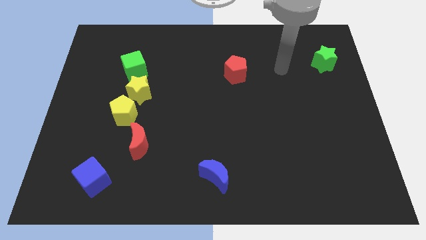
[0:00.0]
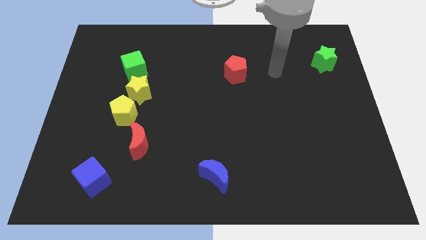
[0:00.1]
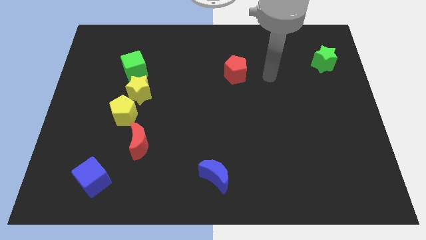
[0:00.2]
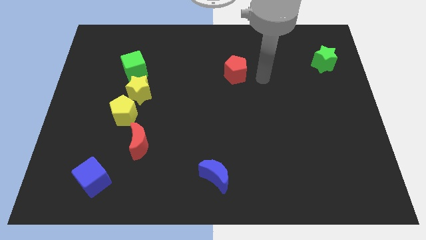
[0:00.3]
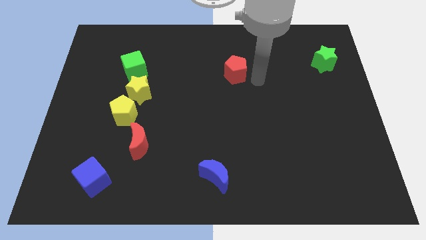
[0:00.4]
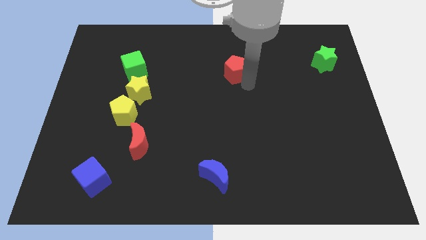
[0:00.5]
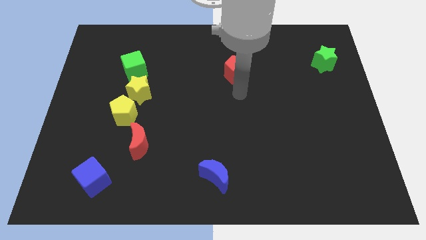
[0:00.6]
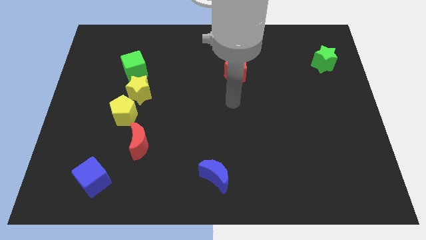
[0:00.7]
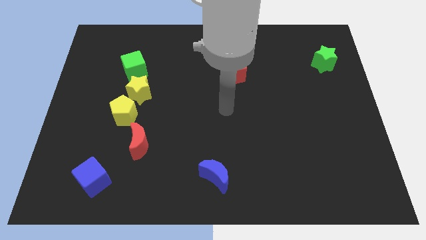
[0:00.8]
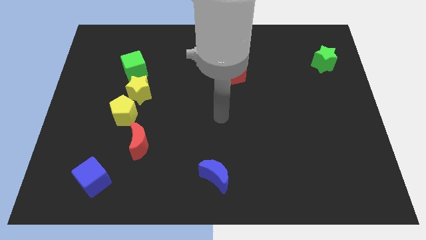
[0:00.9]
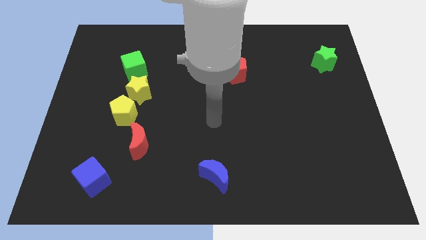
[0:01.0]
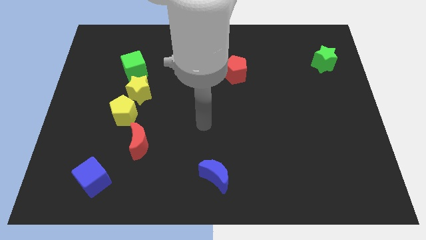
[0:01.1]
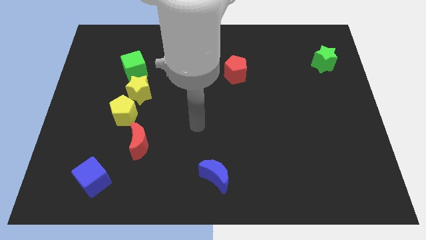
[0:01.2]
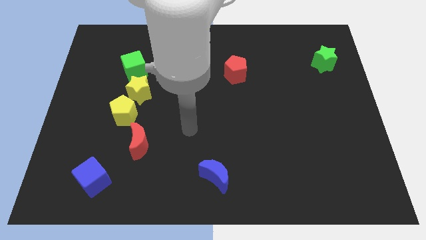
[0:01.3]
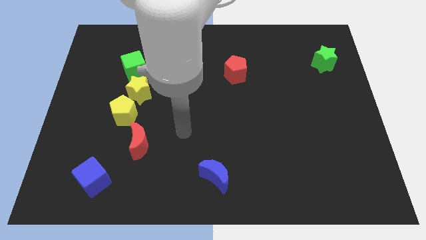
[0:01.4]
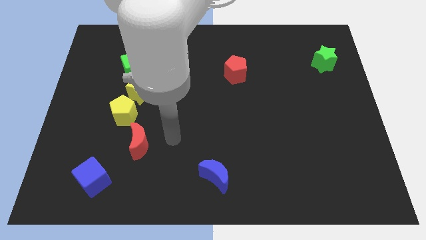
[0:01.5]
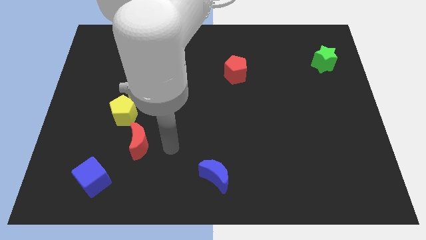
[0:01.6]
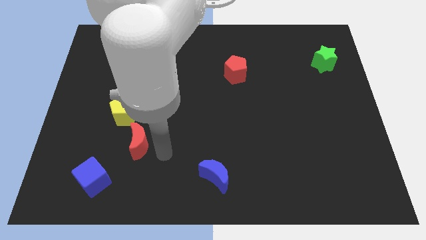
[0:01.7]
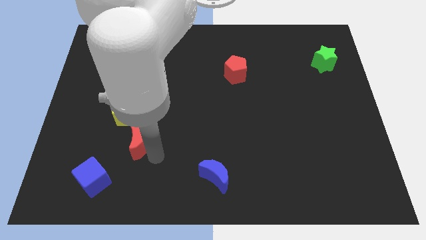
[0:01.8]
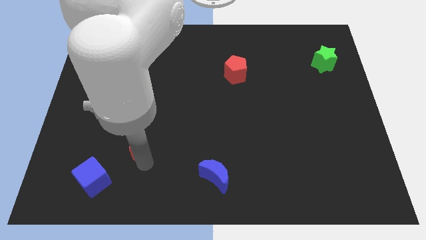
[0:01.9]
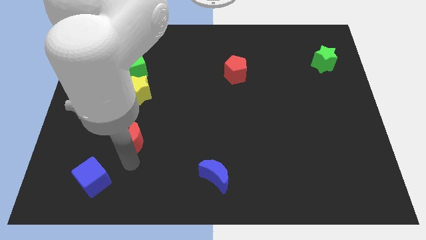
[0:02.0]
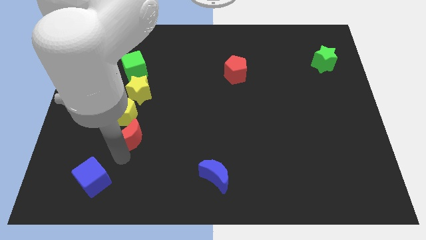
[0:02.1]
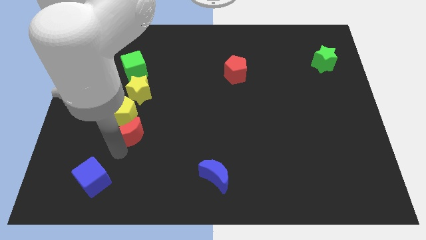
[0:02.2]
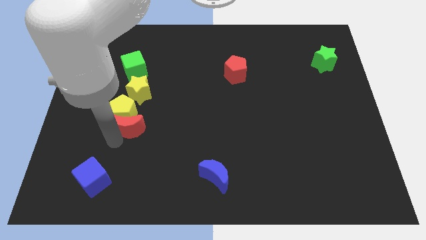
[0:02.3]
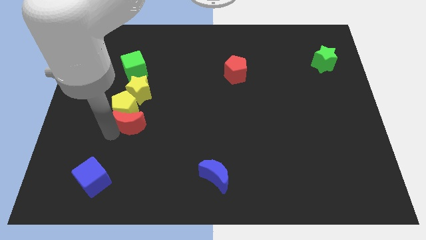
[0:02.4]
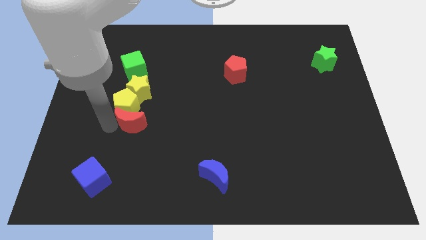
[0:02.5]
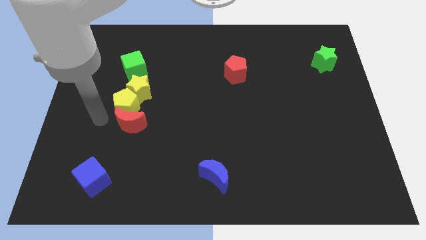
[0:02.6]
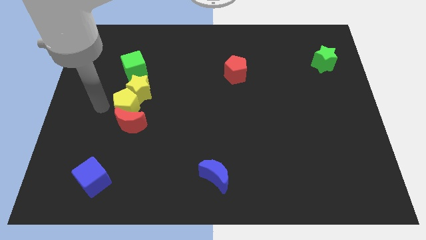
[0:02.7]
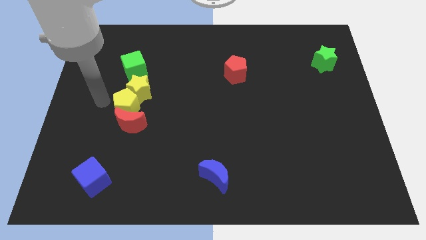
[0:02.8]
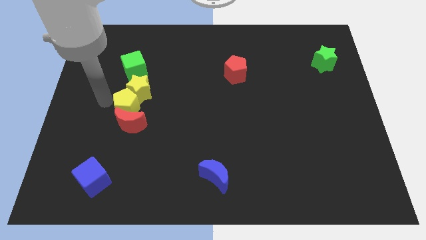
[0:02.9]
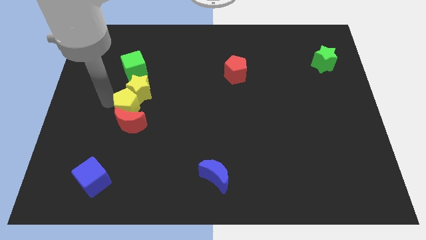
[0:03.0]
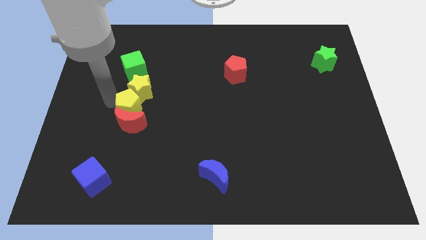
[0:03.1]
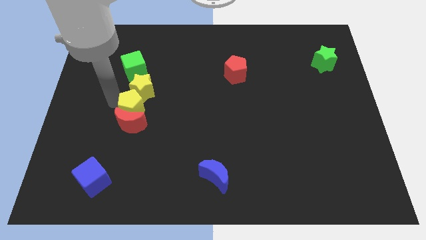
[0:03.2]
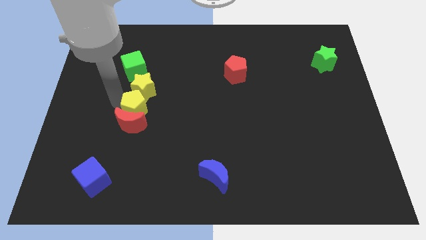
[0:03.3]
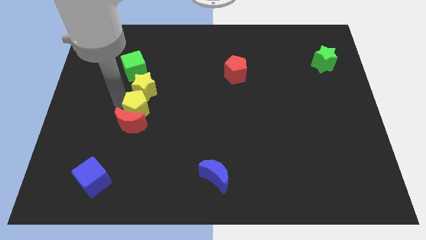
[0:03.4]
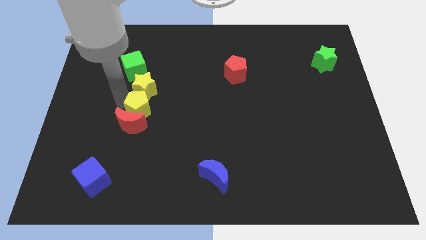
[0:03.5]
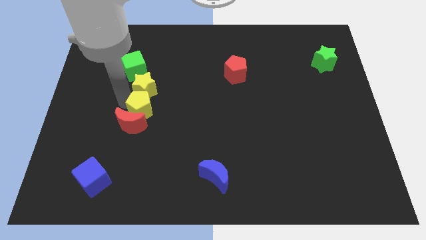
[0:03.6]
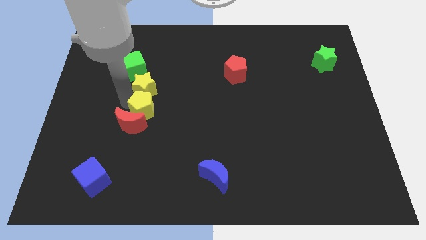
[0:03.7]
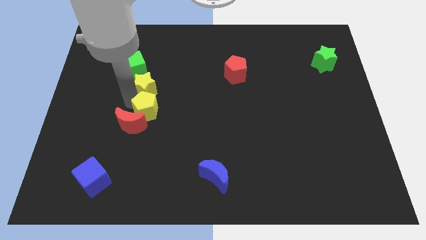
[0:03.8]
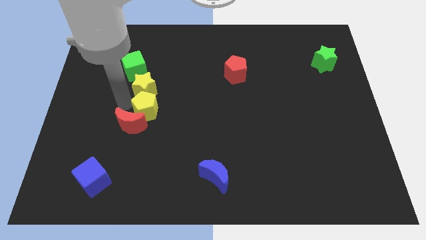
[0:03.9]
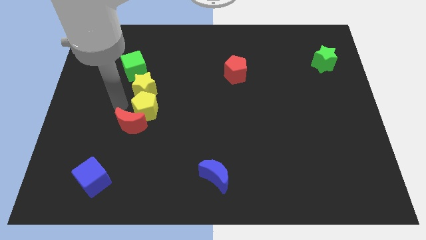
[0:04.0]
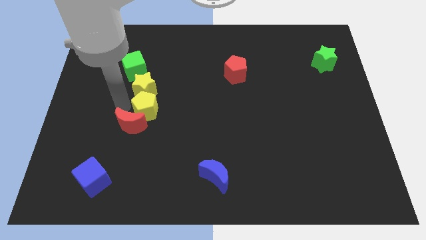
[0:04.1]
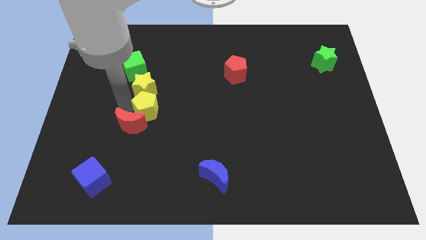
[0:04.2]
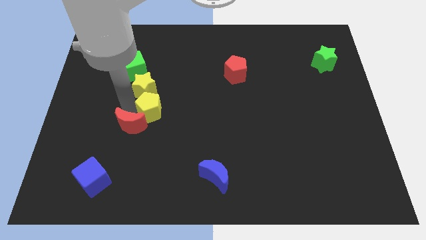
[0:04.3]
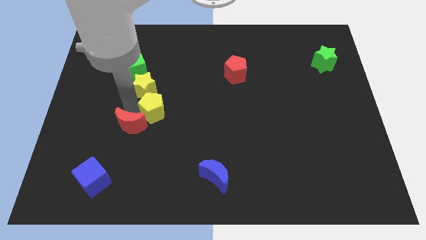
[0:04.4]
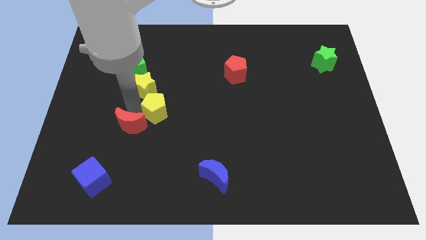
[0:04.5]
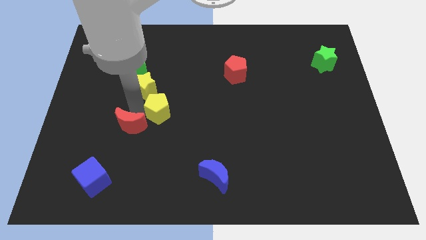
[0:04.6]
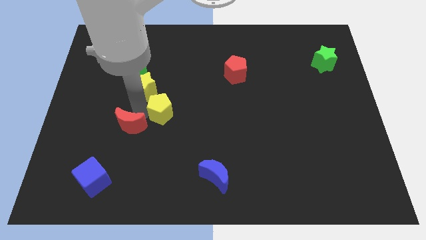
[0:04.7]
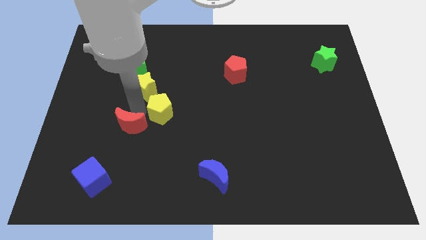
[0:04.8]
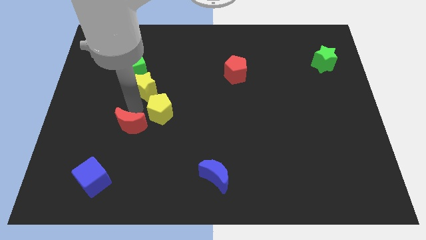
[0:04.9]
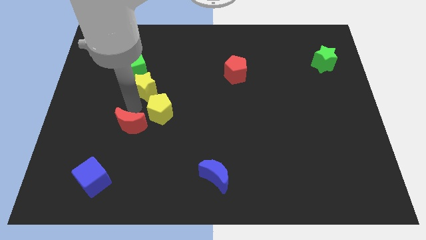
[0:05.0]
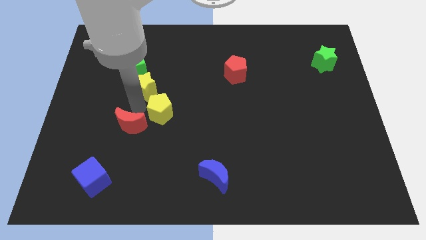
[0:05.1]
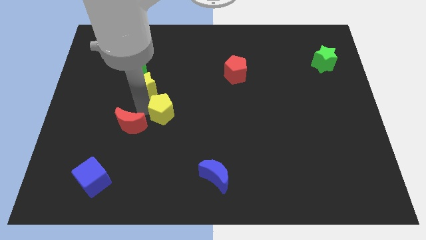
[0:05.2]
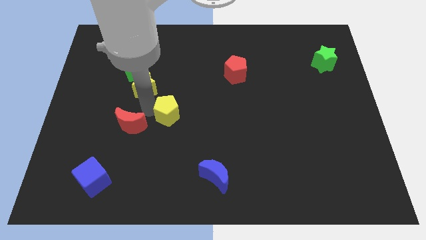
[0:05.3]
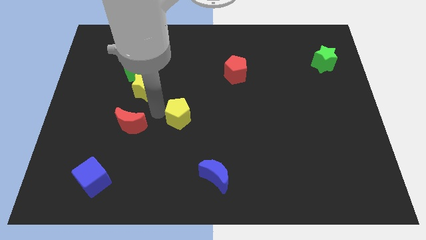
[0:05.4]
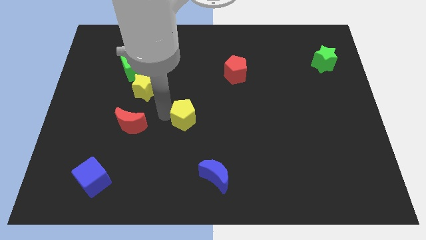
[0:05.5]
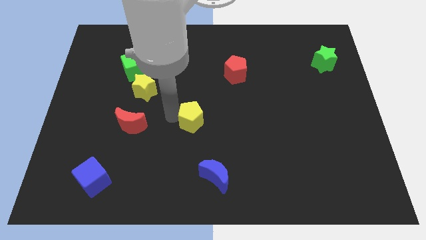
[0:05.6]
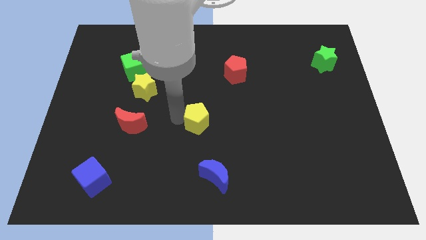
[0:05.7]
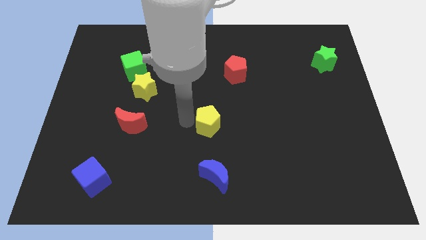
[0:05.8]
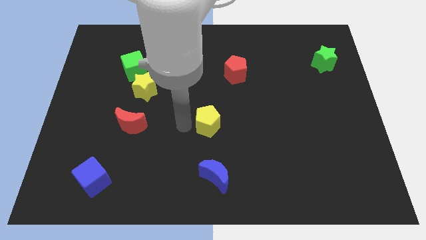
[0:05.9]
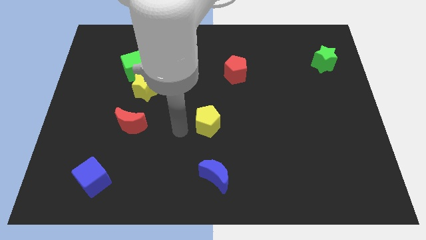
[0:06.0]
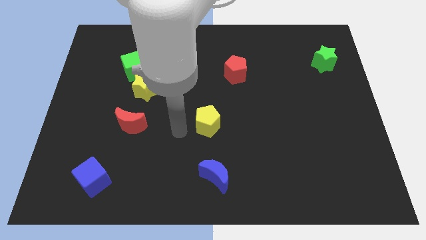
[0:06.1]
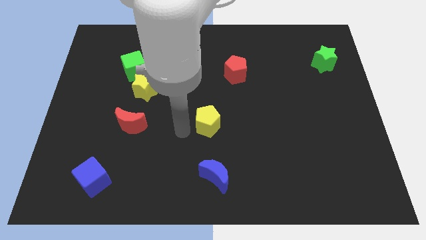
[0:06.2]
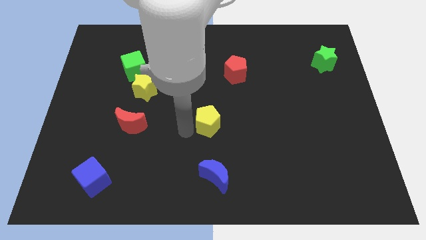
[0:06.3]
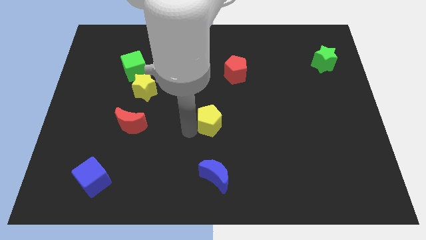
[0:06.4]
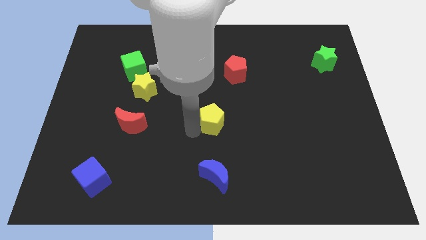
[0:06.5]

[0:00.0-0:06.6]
move the yellow pentagon right

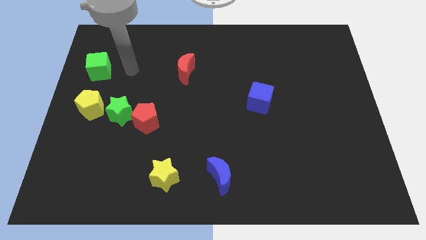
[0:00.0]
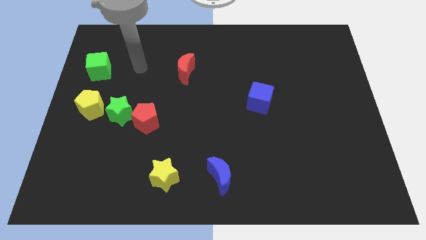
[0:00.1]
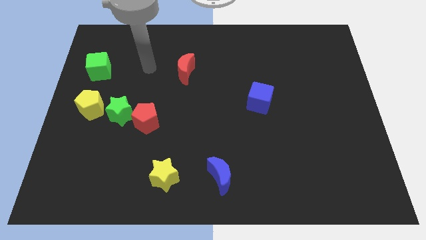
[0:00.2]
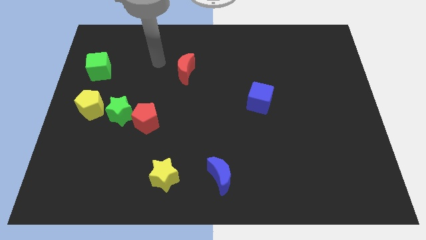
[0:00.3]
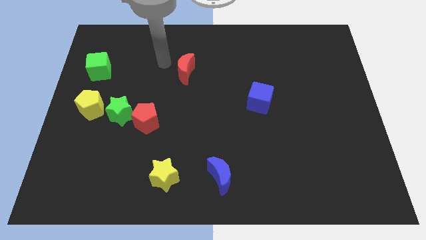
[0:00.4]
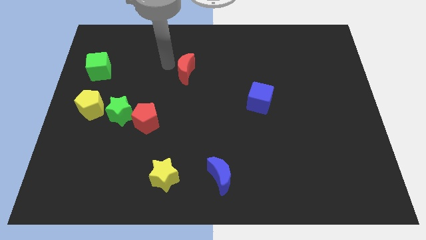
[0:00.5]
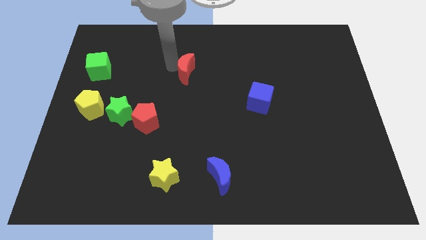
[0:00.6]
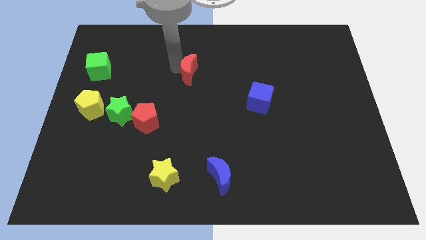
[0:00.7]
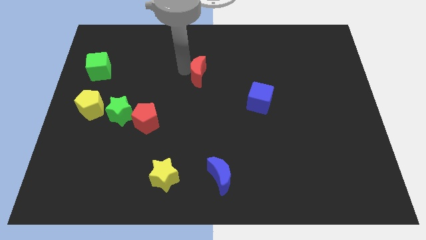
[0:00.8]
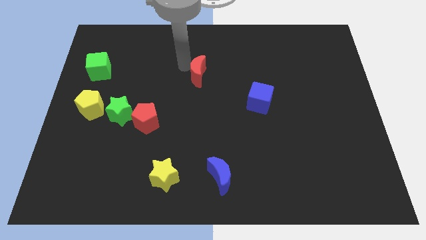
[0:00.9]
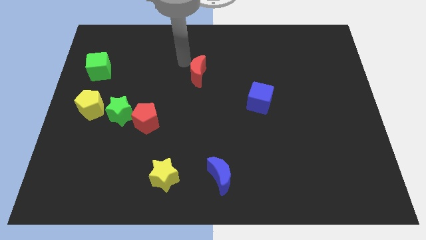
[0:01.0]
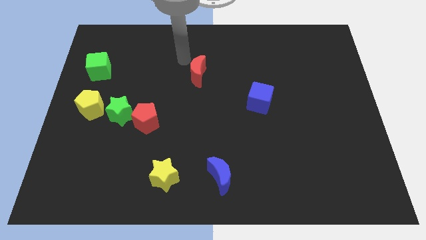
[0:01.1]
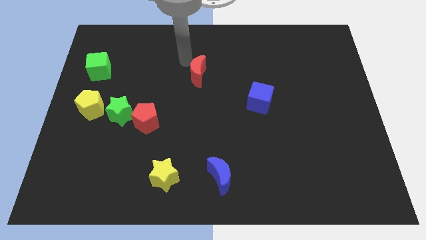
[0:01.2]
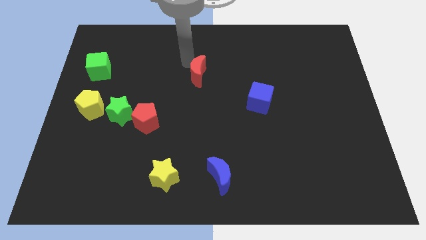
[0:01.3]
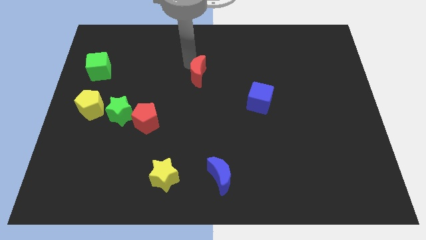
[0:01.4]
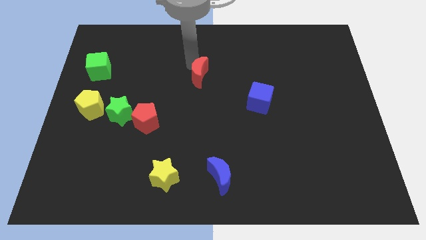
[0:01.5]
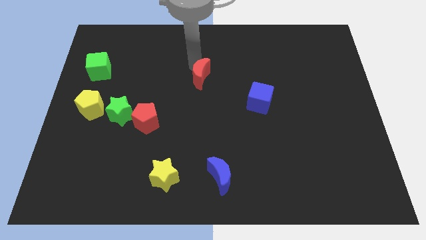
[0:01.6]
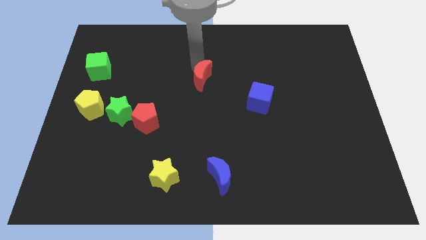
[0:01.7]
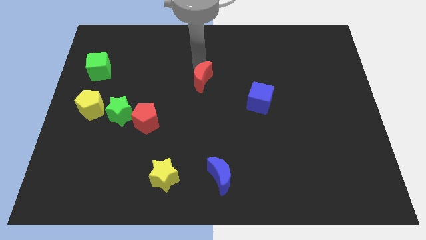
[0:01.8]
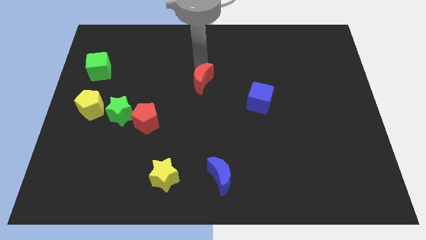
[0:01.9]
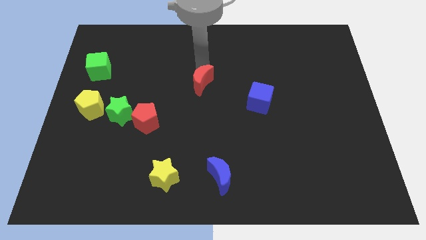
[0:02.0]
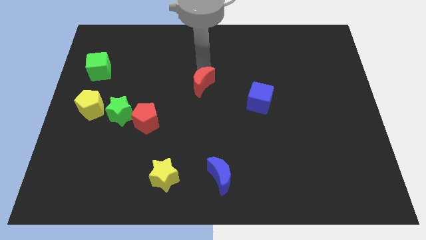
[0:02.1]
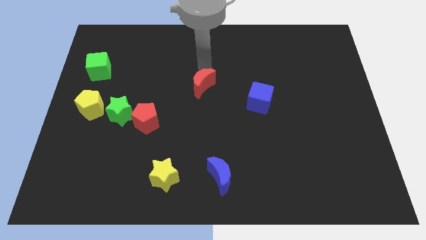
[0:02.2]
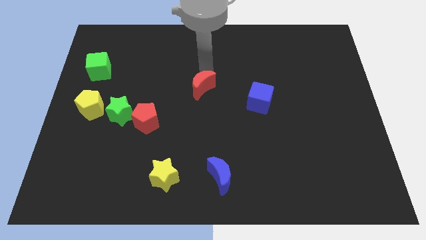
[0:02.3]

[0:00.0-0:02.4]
slide the red moon down and then right somewhat
